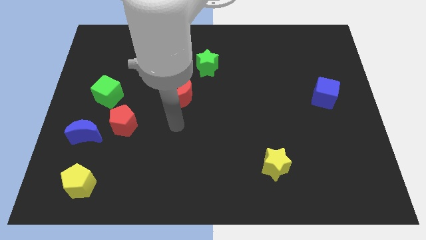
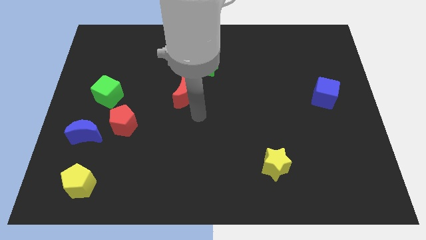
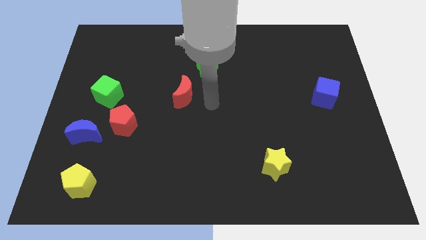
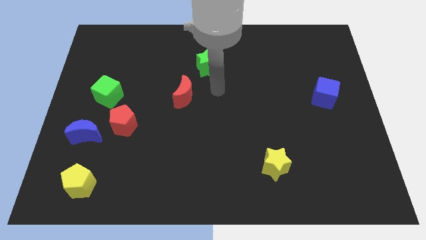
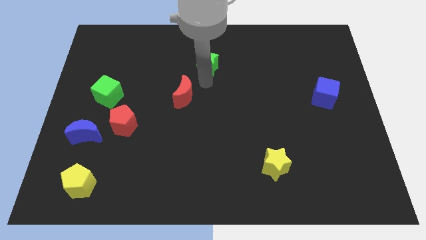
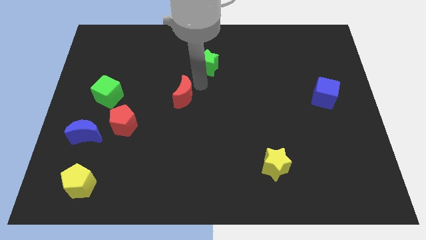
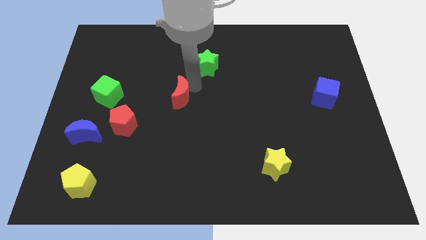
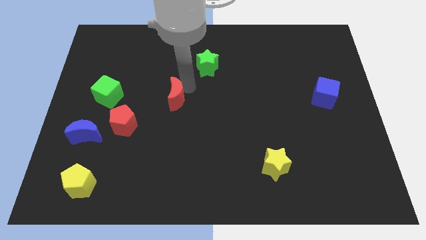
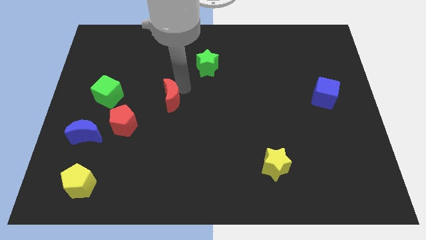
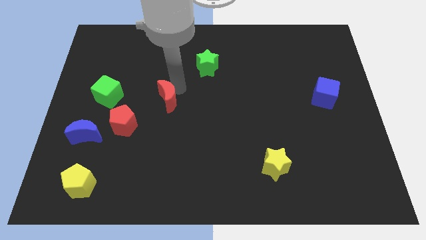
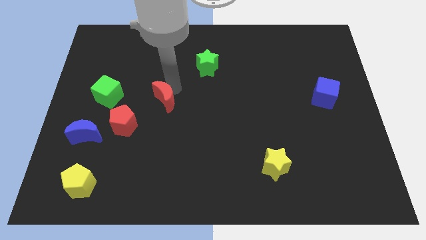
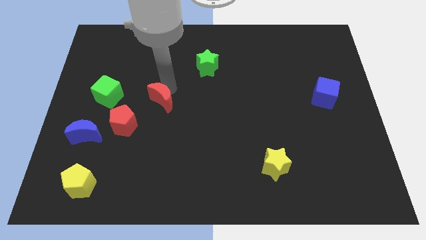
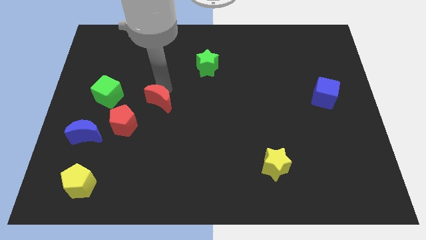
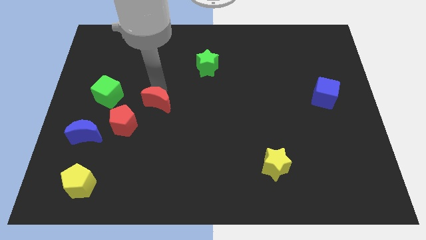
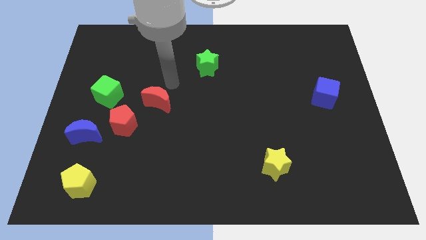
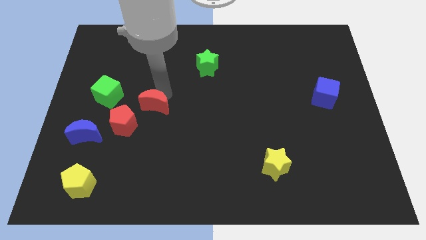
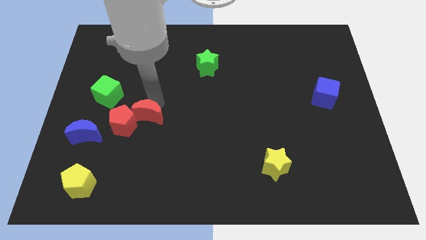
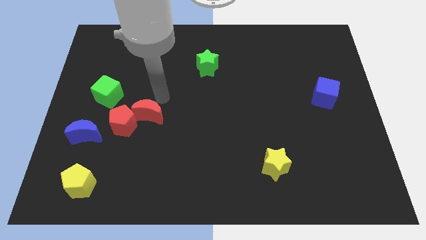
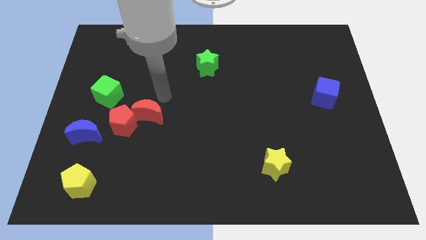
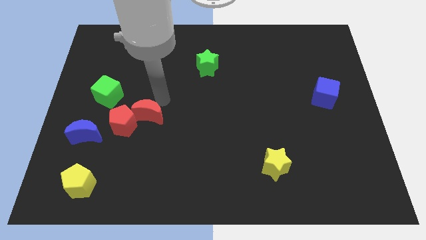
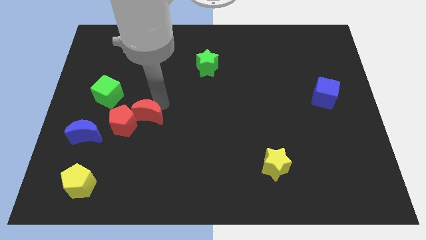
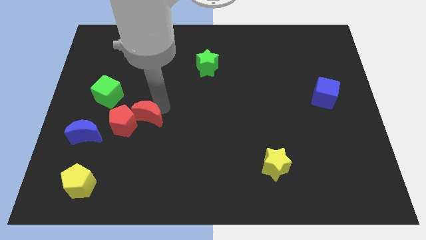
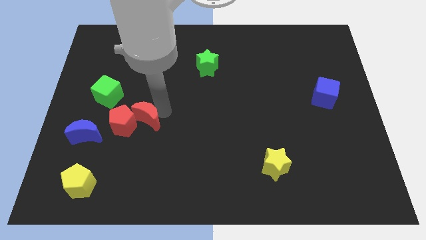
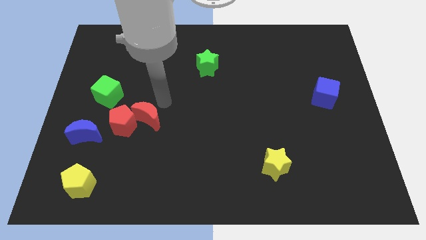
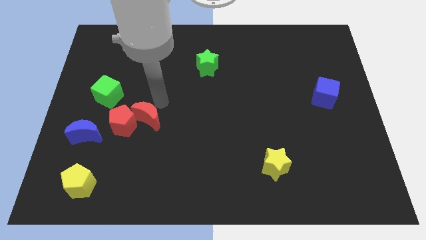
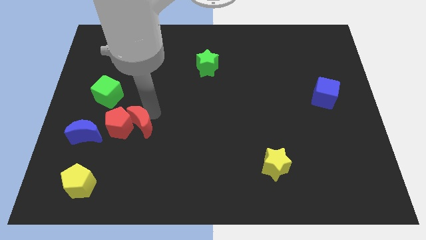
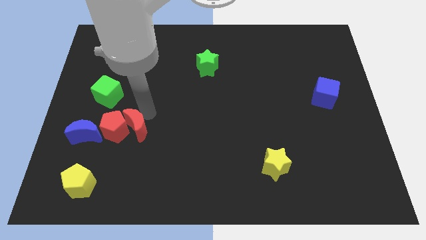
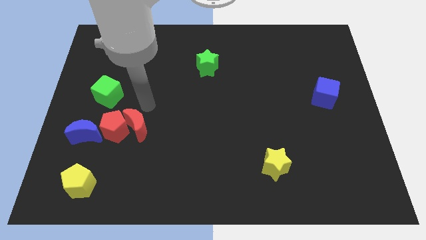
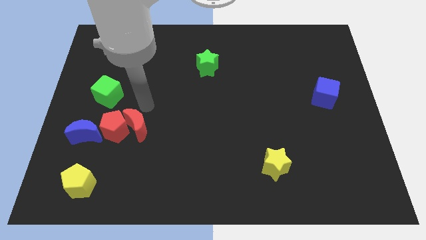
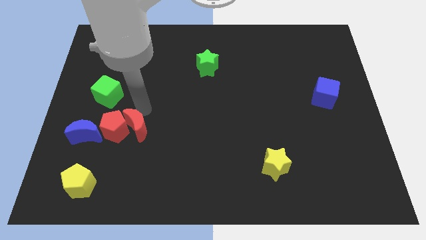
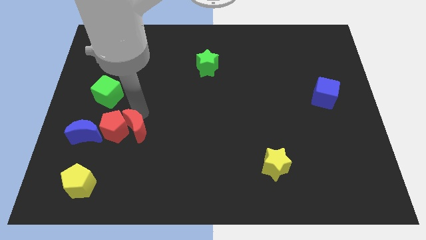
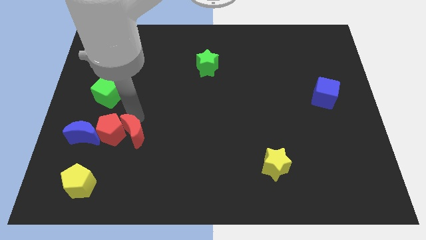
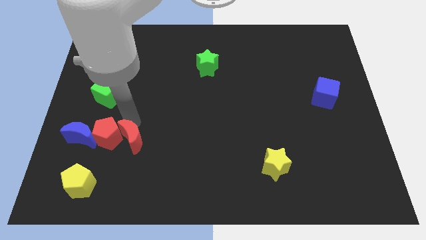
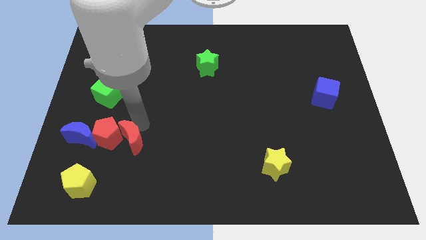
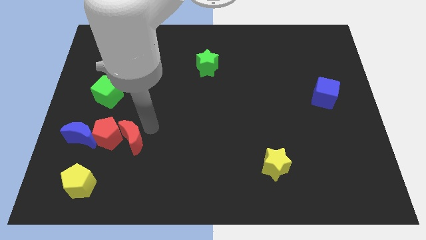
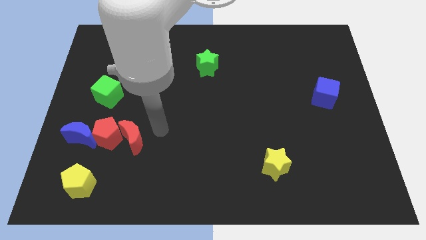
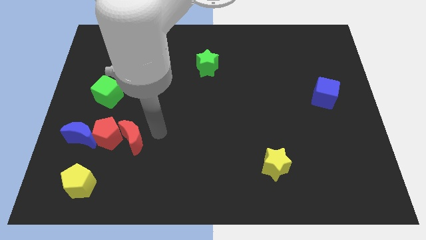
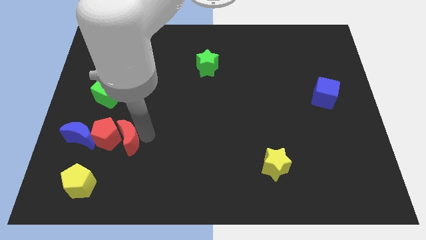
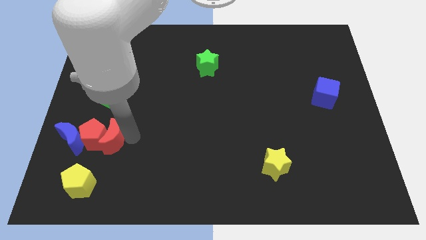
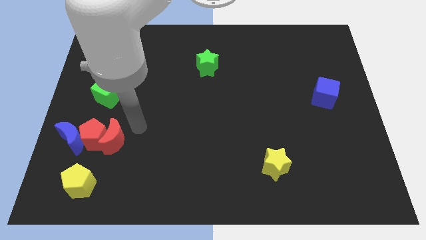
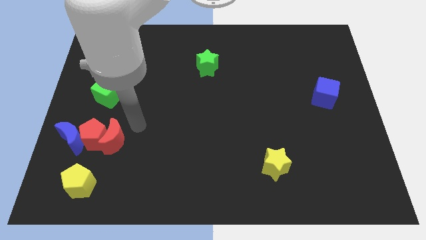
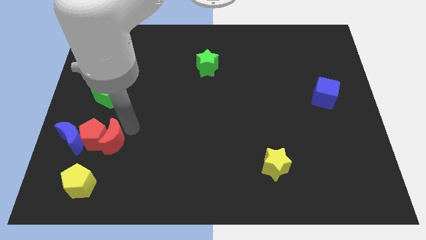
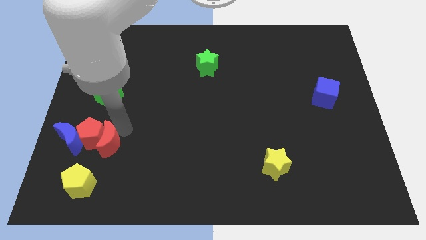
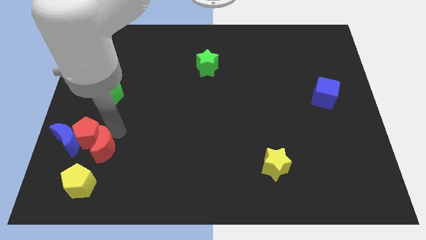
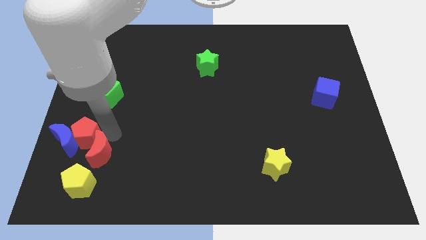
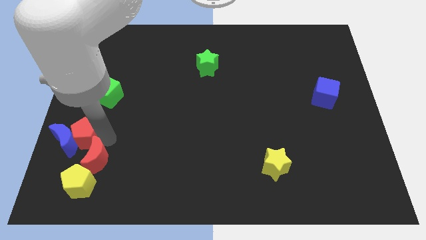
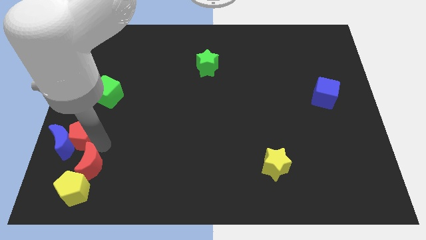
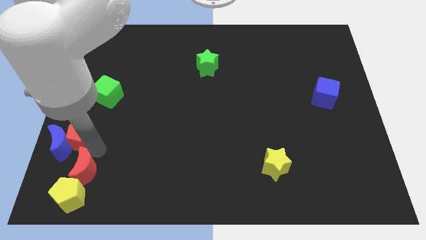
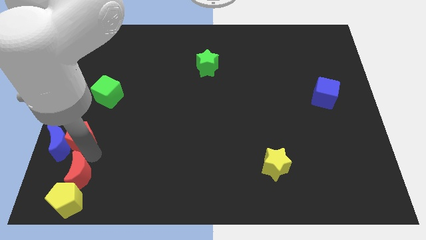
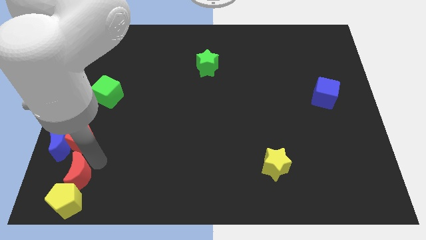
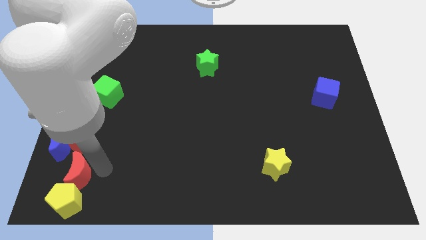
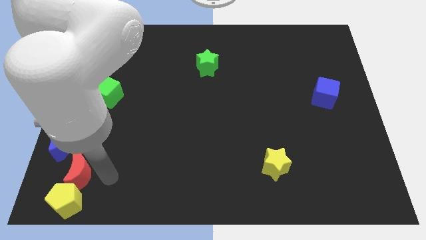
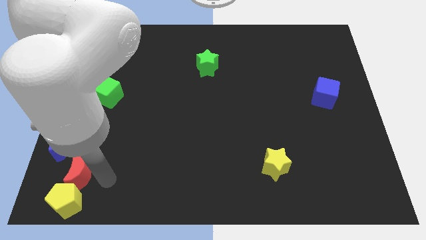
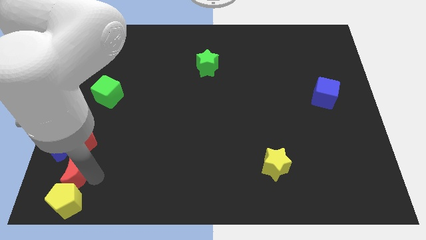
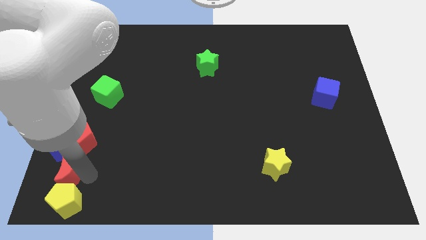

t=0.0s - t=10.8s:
push the red moon to the bottom left

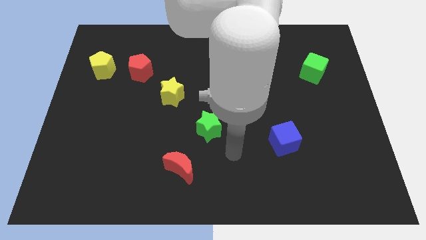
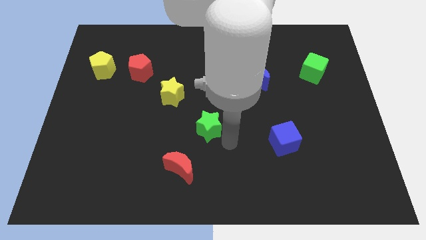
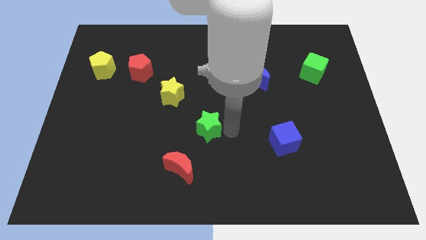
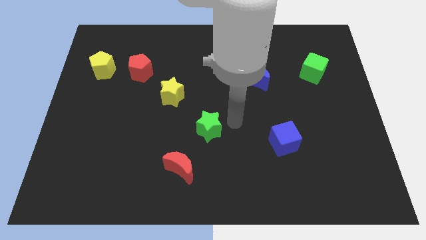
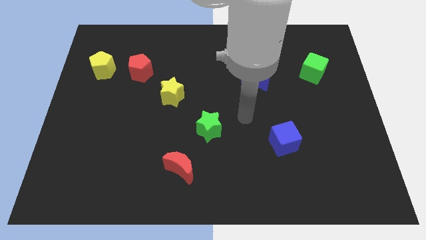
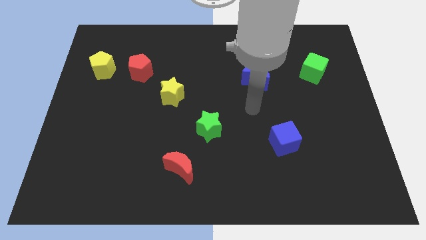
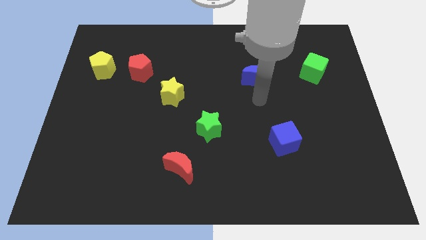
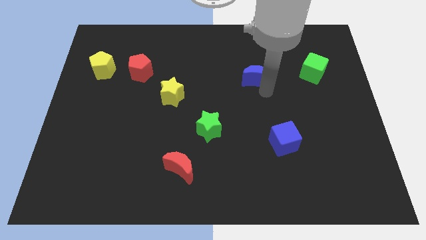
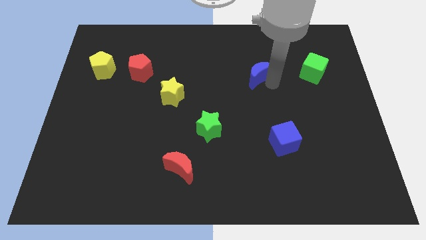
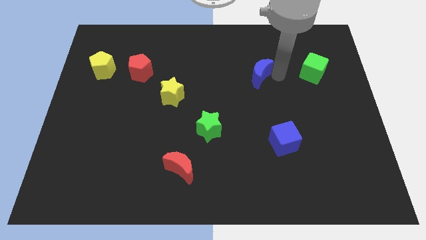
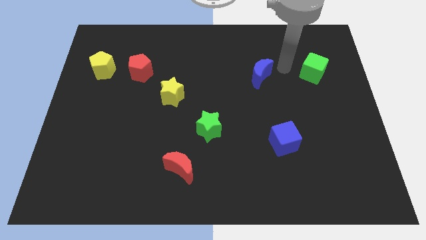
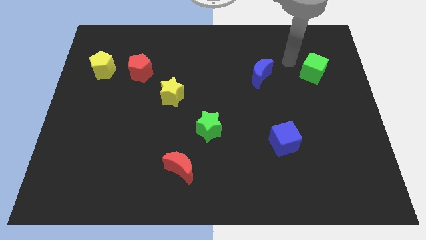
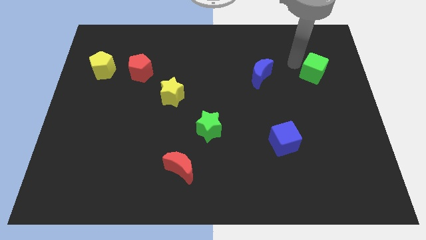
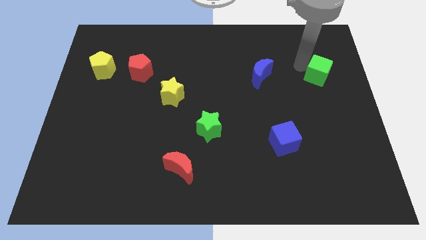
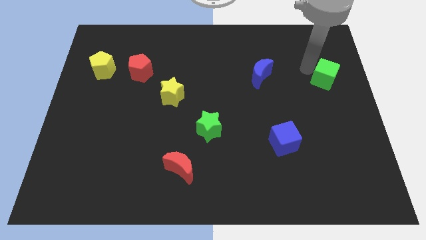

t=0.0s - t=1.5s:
push the green cube to the right side
